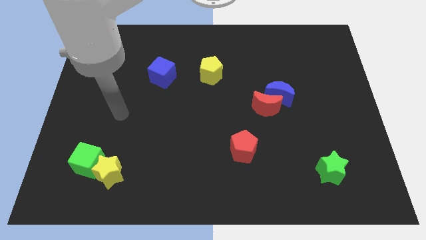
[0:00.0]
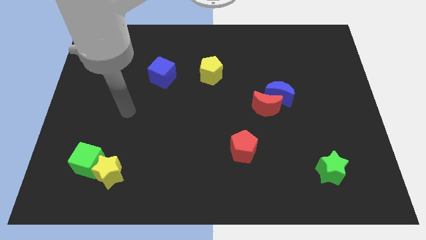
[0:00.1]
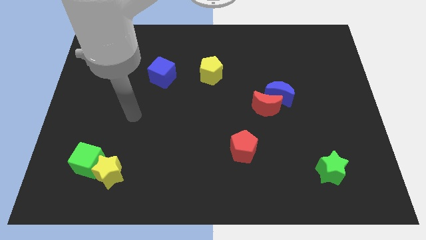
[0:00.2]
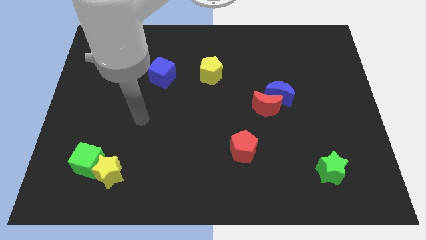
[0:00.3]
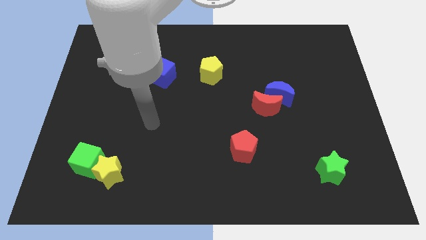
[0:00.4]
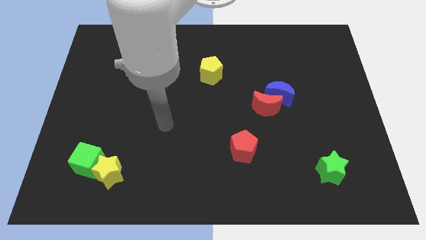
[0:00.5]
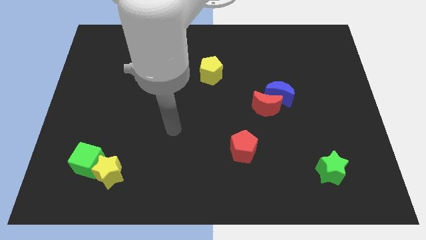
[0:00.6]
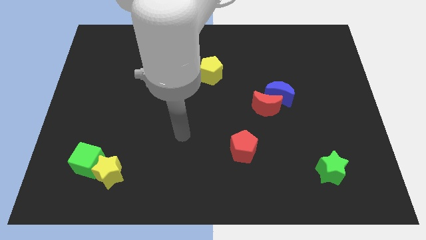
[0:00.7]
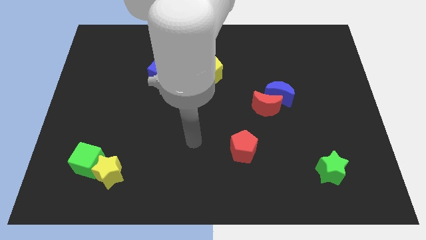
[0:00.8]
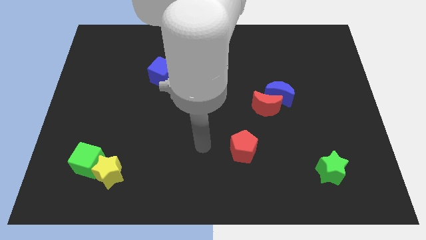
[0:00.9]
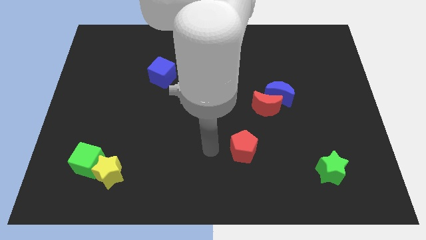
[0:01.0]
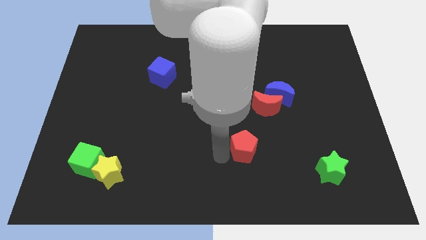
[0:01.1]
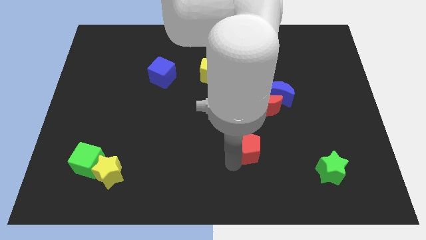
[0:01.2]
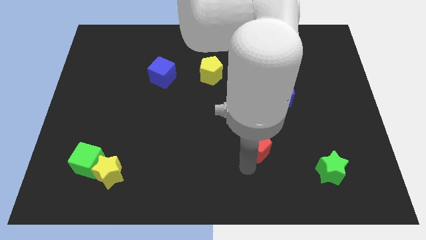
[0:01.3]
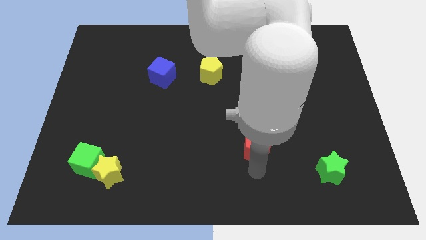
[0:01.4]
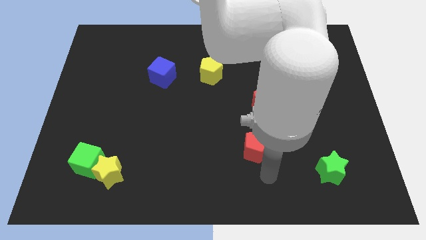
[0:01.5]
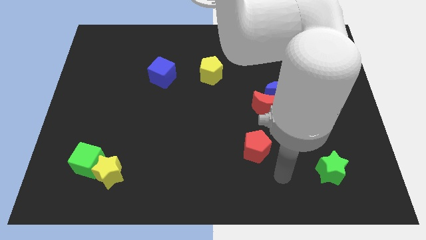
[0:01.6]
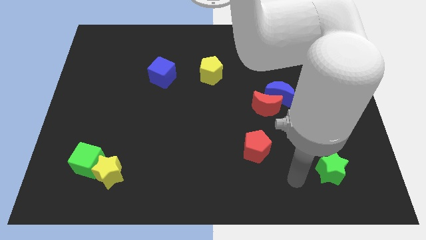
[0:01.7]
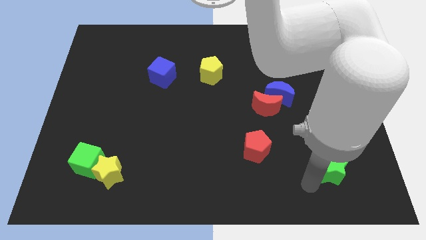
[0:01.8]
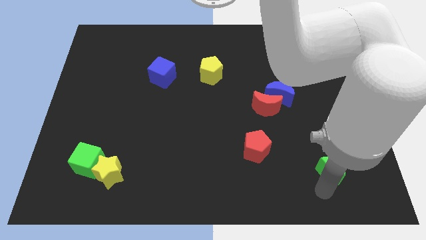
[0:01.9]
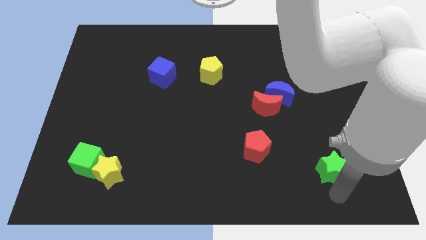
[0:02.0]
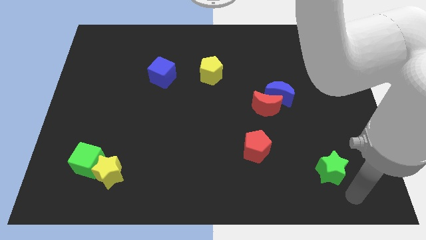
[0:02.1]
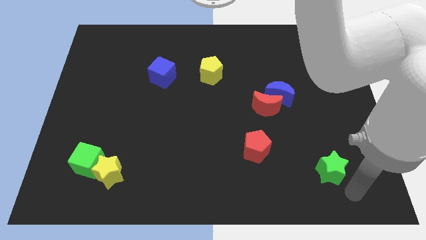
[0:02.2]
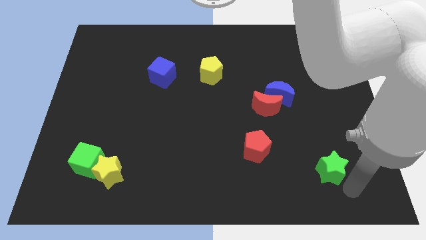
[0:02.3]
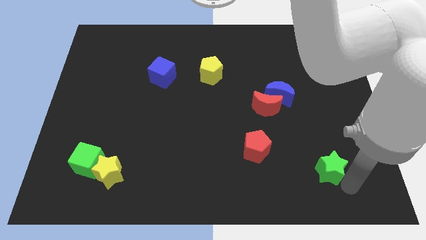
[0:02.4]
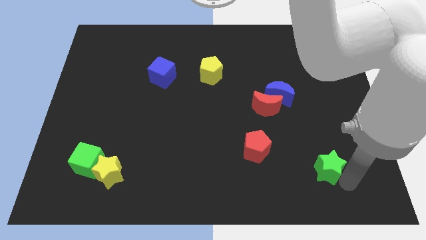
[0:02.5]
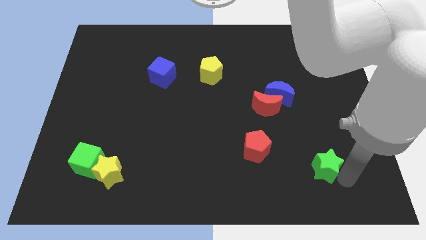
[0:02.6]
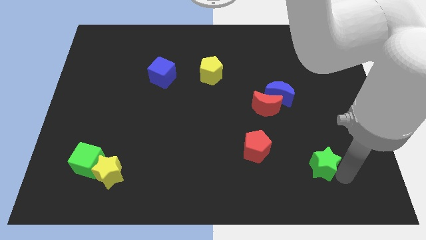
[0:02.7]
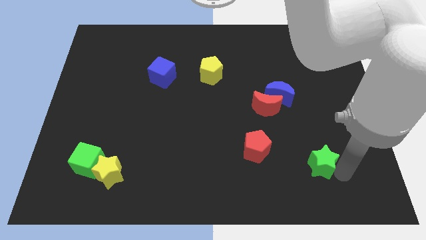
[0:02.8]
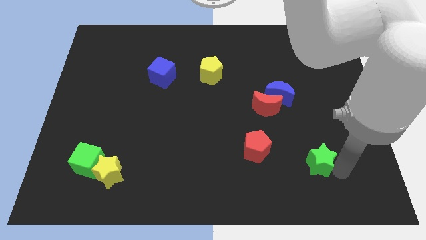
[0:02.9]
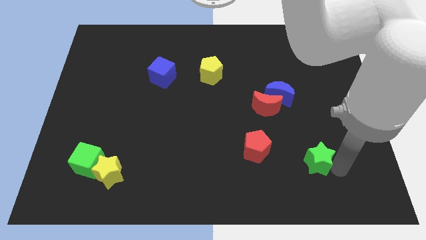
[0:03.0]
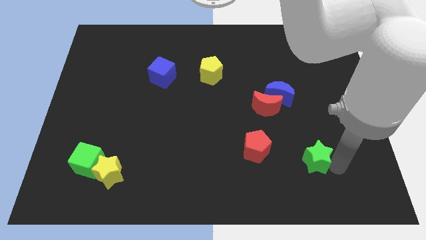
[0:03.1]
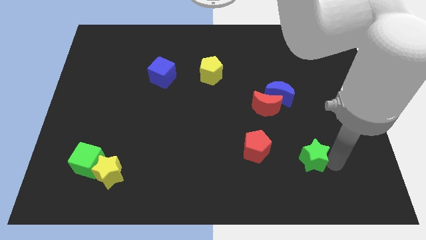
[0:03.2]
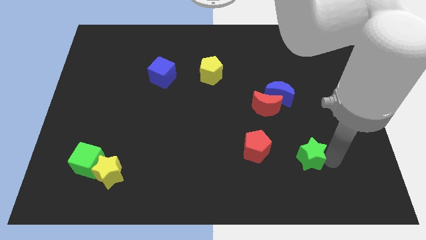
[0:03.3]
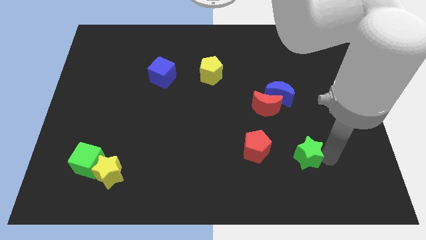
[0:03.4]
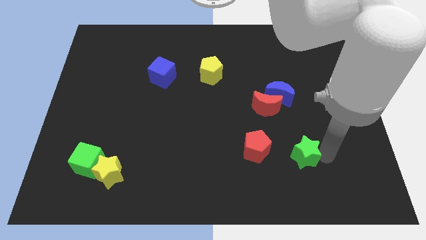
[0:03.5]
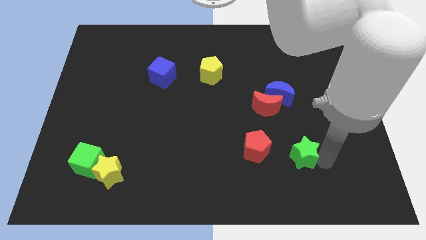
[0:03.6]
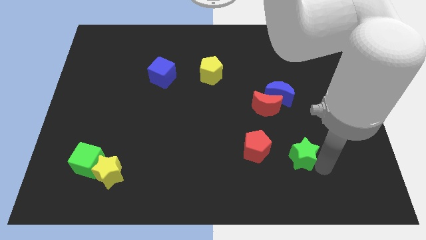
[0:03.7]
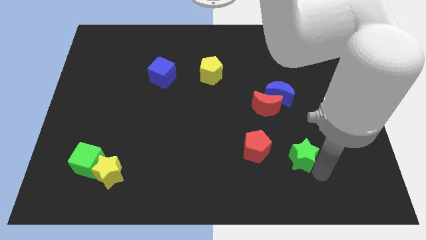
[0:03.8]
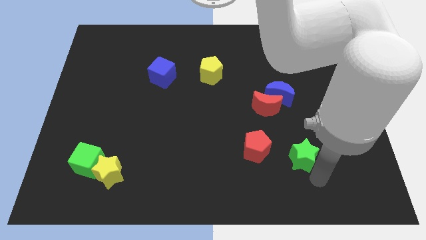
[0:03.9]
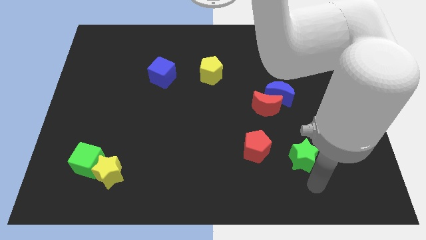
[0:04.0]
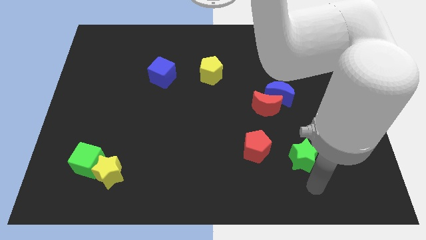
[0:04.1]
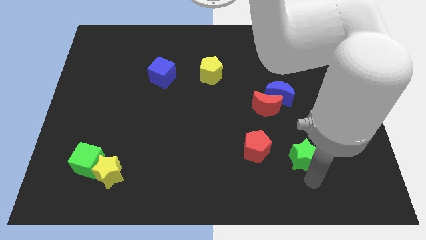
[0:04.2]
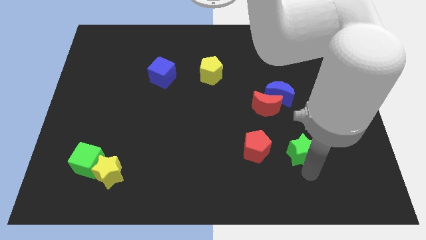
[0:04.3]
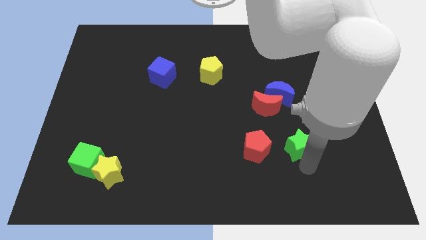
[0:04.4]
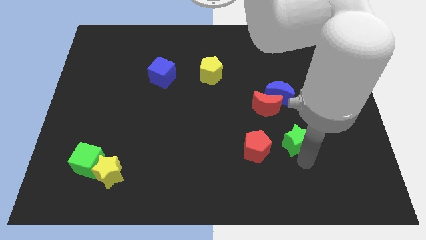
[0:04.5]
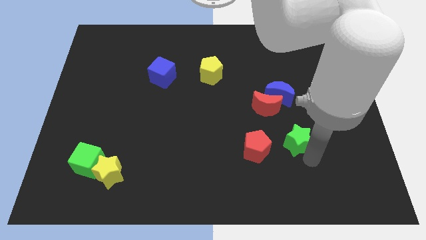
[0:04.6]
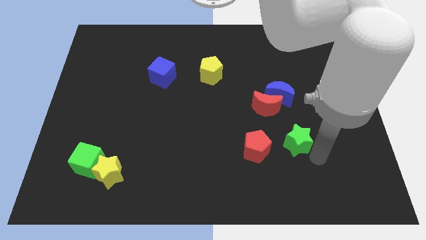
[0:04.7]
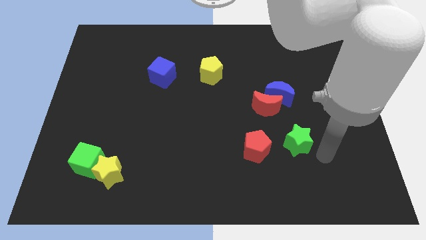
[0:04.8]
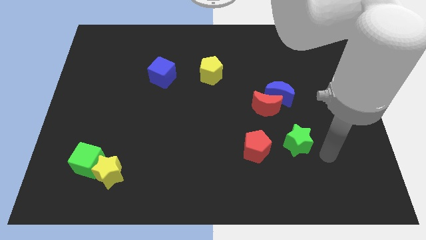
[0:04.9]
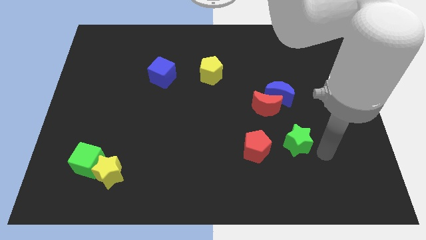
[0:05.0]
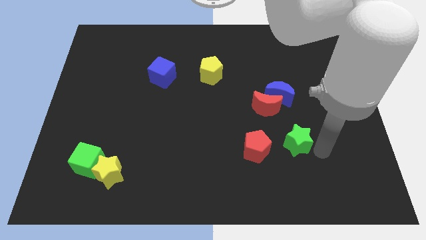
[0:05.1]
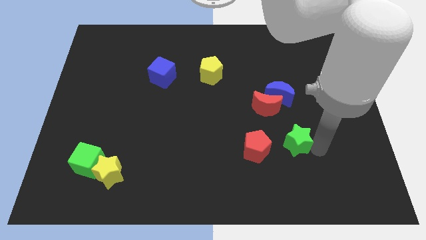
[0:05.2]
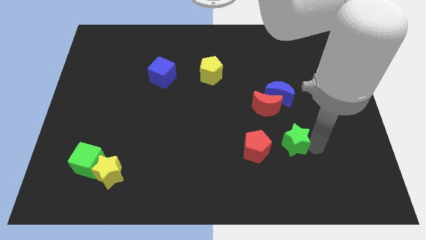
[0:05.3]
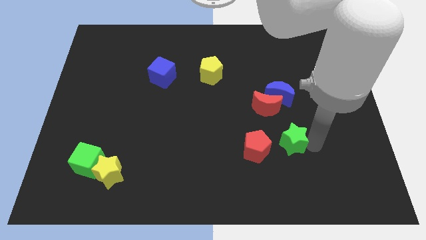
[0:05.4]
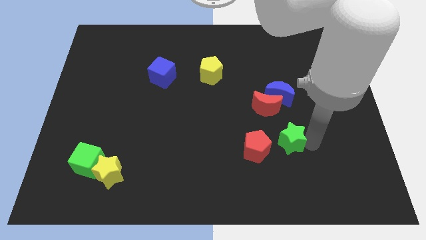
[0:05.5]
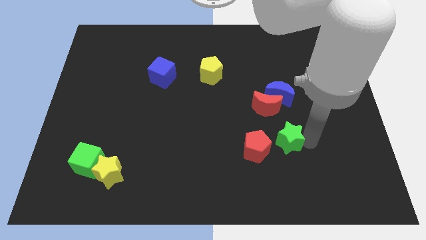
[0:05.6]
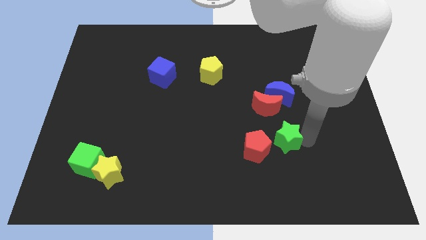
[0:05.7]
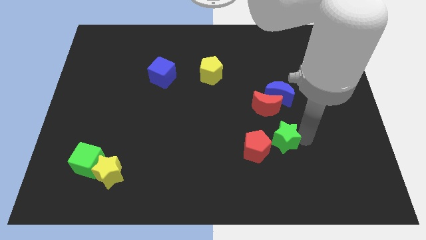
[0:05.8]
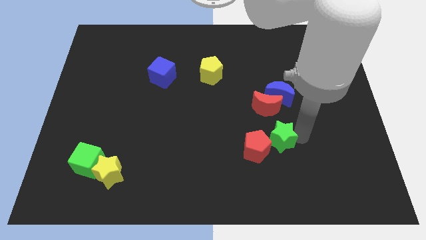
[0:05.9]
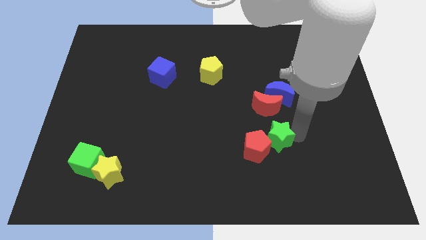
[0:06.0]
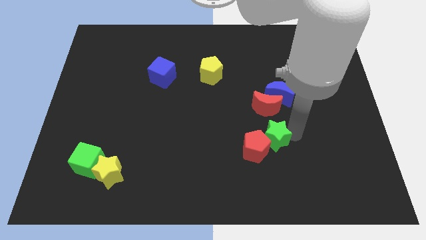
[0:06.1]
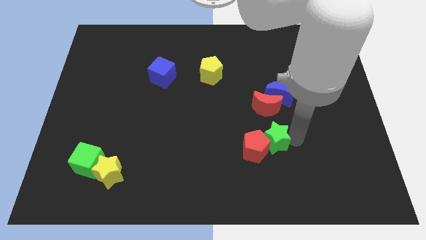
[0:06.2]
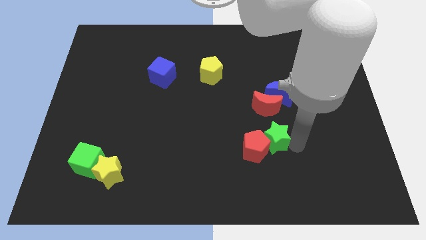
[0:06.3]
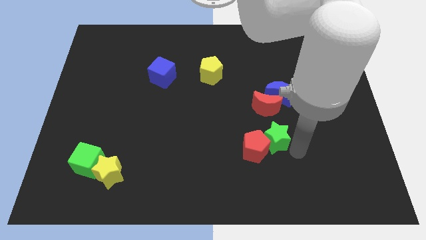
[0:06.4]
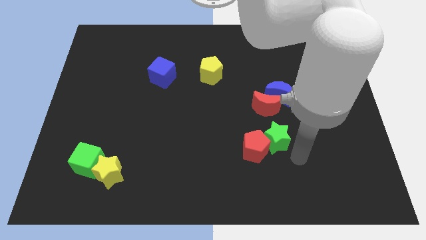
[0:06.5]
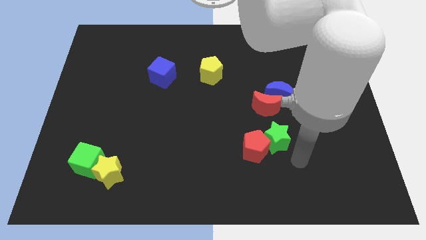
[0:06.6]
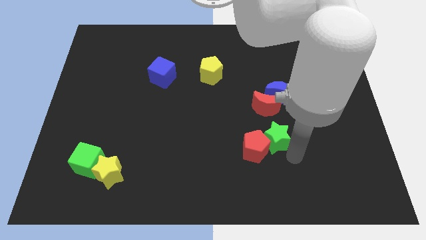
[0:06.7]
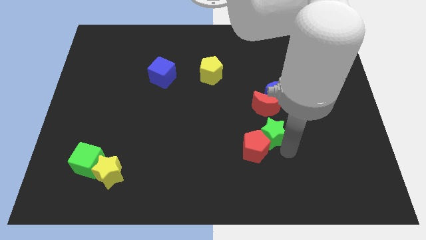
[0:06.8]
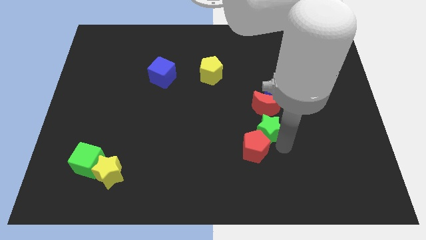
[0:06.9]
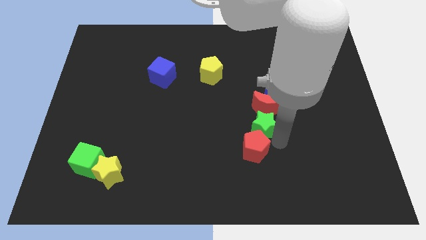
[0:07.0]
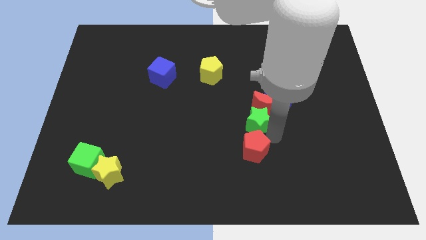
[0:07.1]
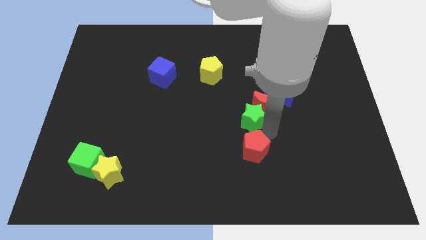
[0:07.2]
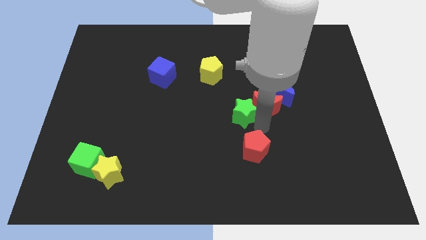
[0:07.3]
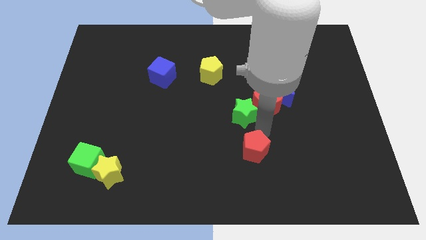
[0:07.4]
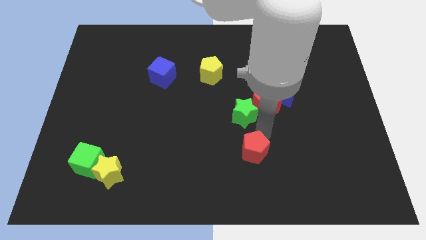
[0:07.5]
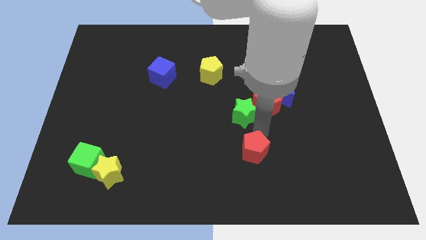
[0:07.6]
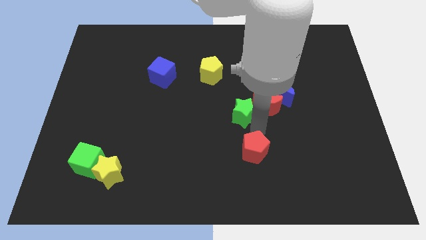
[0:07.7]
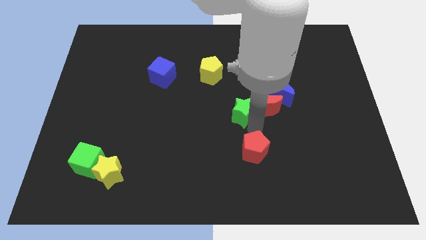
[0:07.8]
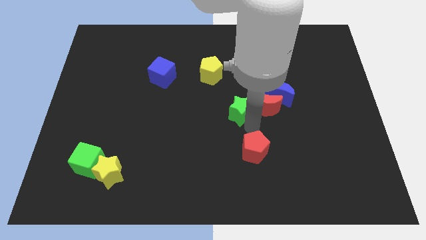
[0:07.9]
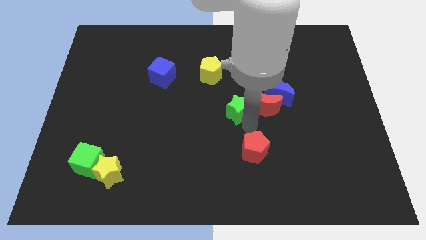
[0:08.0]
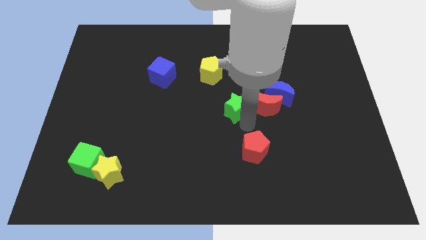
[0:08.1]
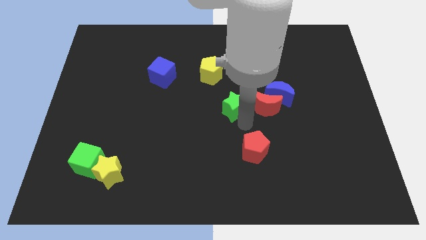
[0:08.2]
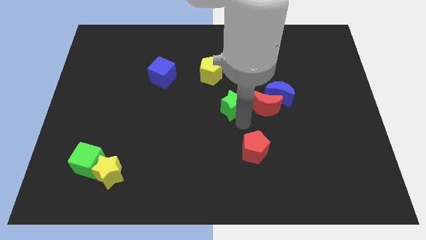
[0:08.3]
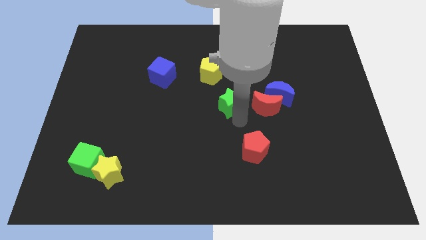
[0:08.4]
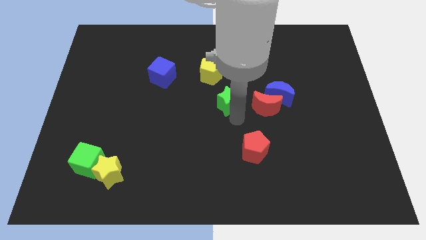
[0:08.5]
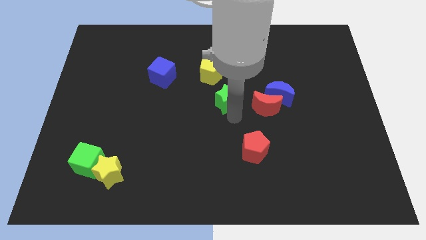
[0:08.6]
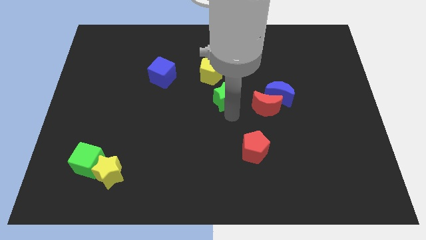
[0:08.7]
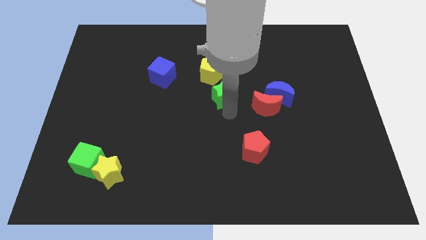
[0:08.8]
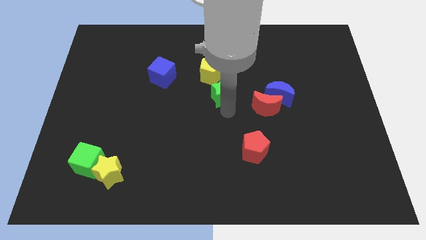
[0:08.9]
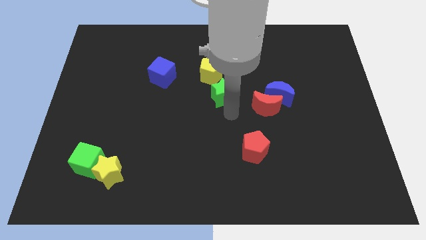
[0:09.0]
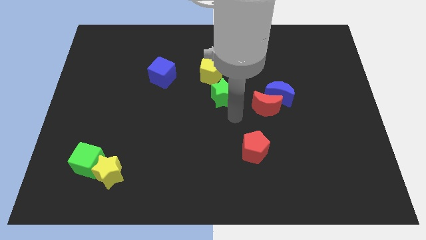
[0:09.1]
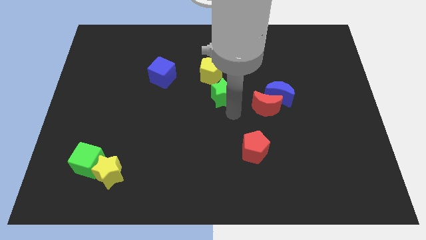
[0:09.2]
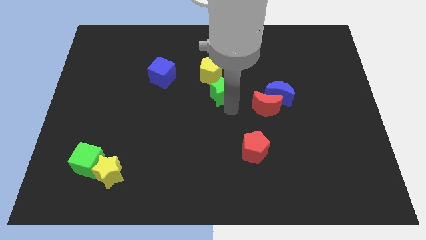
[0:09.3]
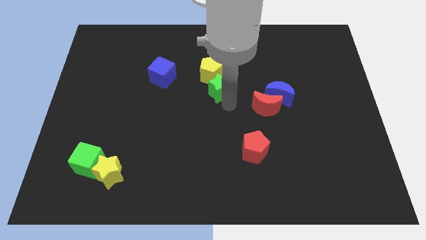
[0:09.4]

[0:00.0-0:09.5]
slide the green star to the yellow pentagon
